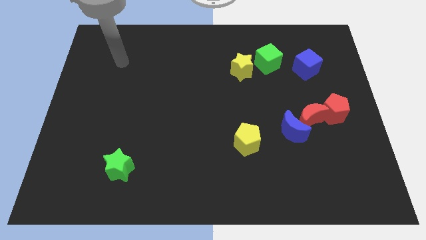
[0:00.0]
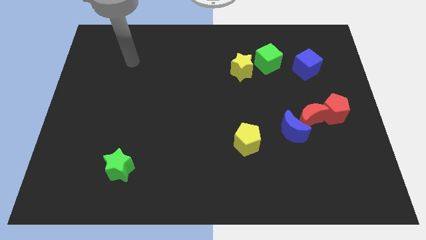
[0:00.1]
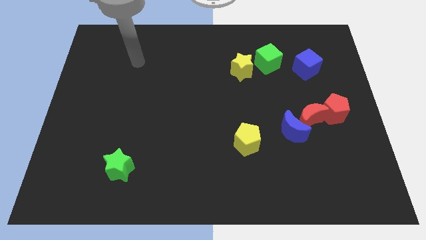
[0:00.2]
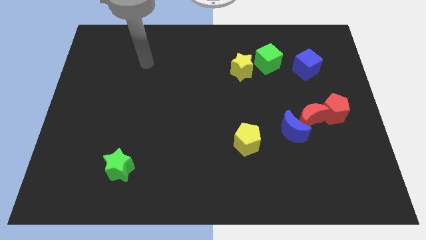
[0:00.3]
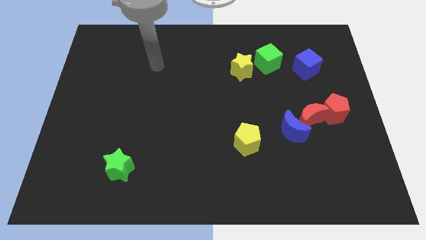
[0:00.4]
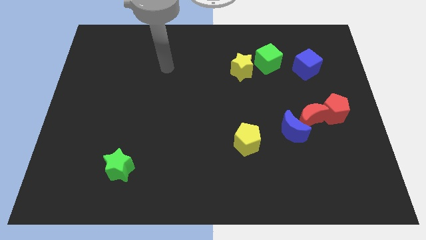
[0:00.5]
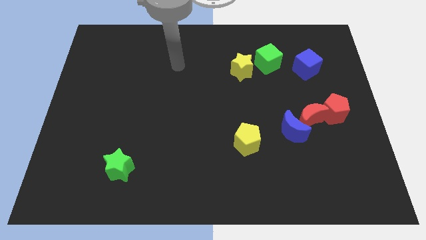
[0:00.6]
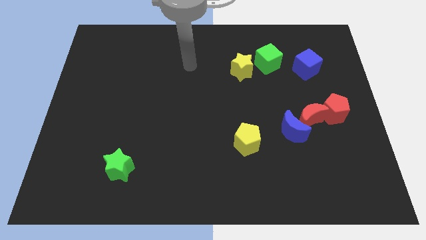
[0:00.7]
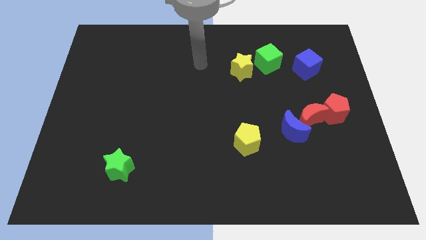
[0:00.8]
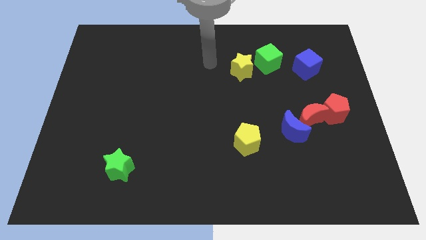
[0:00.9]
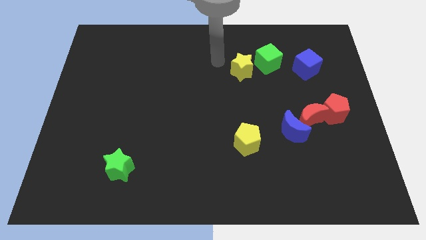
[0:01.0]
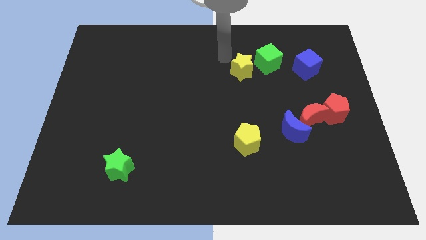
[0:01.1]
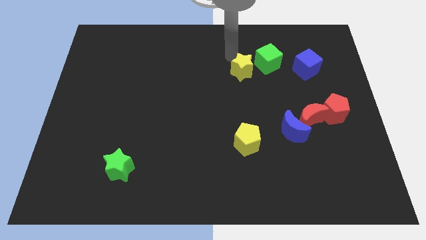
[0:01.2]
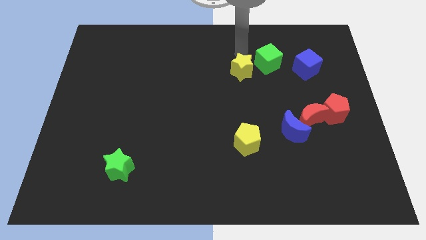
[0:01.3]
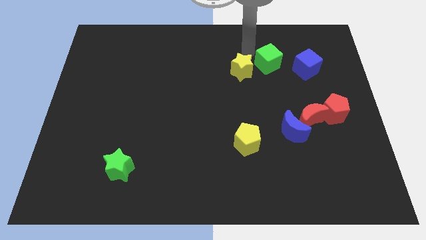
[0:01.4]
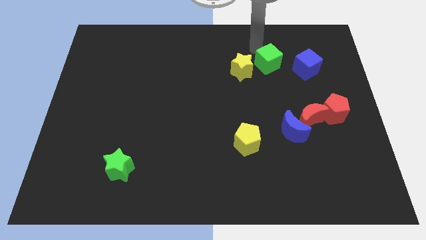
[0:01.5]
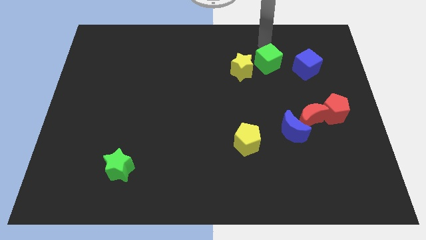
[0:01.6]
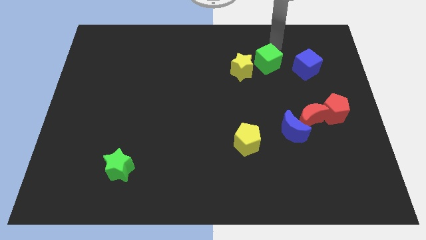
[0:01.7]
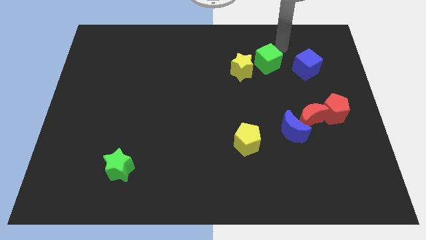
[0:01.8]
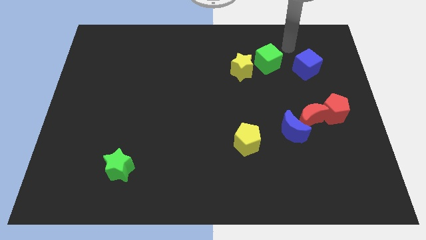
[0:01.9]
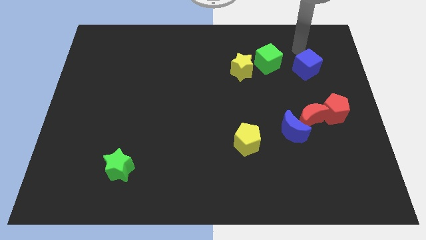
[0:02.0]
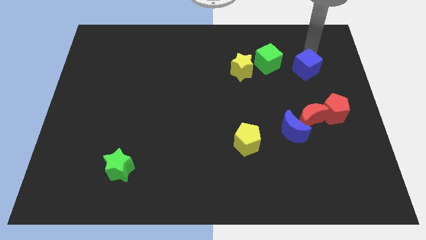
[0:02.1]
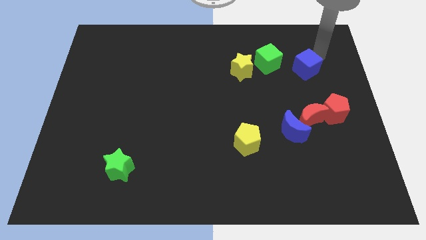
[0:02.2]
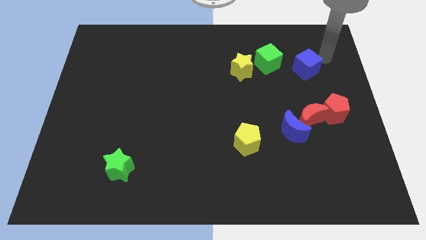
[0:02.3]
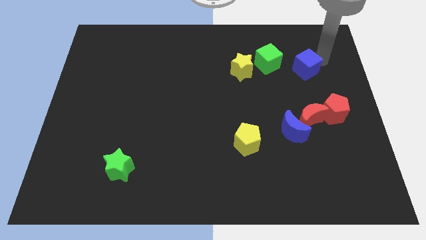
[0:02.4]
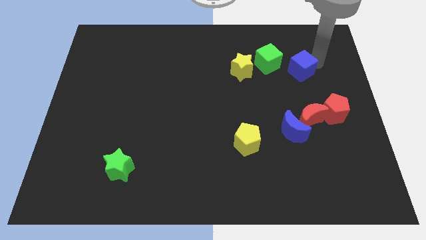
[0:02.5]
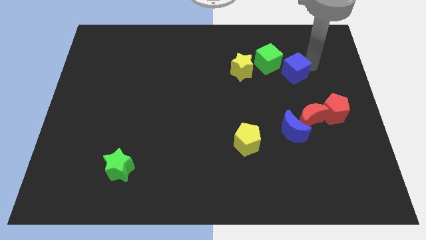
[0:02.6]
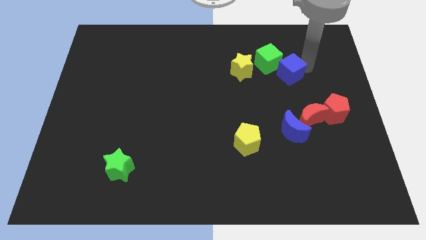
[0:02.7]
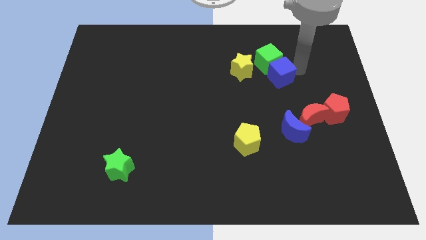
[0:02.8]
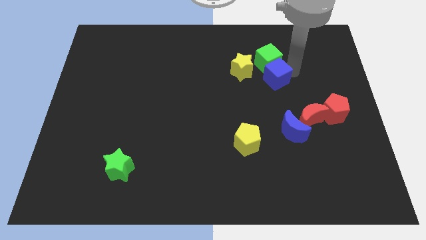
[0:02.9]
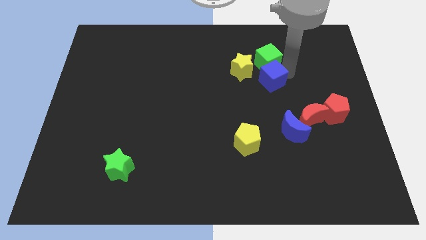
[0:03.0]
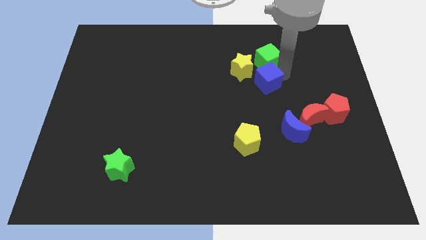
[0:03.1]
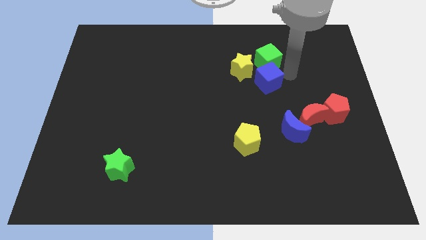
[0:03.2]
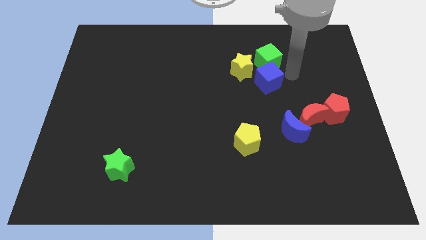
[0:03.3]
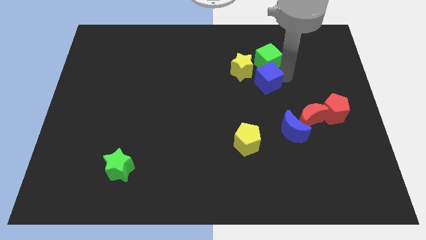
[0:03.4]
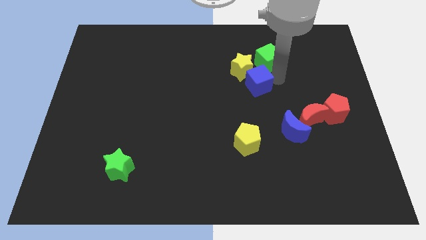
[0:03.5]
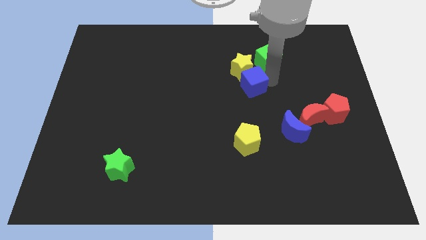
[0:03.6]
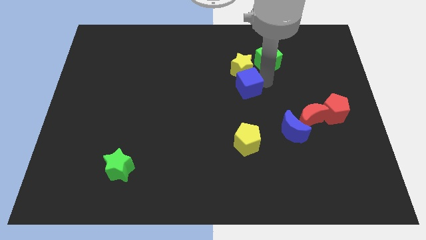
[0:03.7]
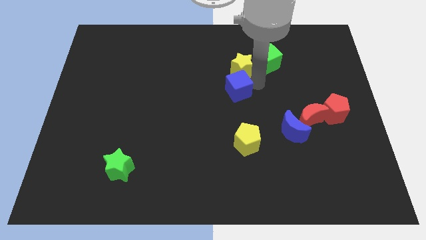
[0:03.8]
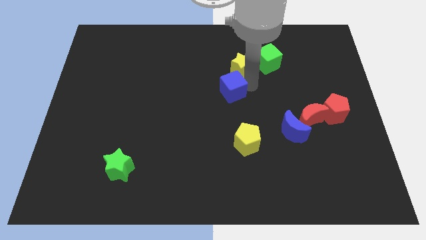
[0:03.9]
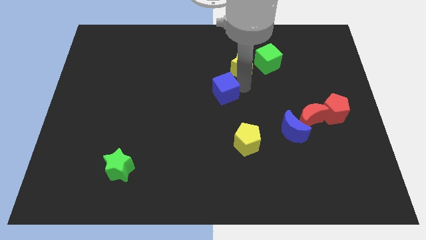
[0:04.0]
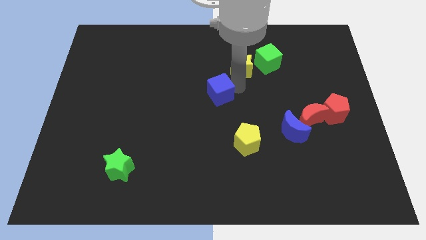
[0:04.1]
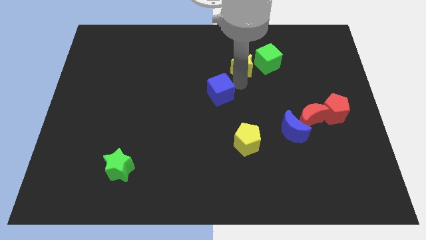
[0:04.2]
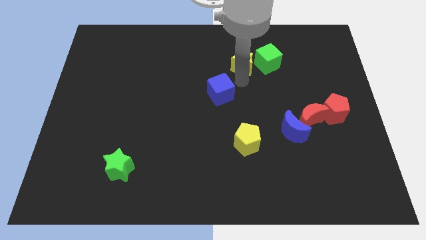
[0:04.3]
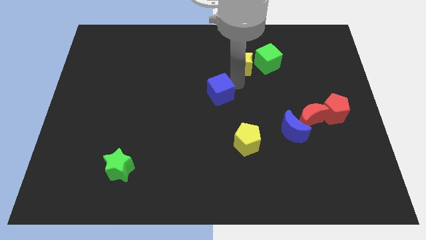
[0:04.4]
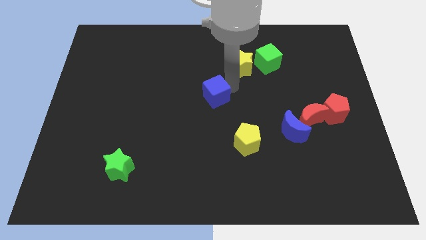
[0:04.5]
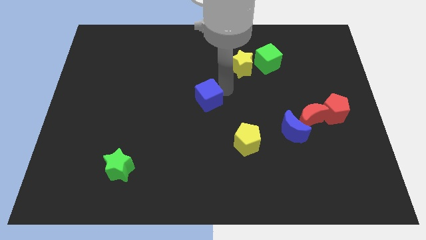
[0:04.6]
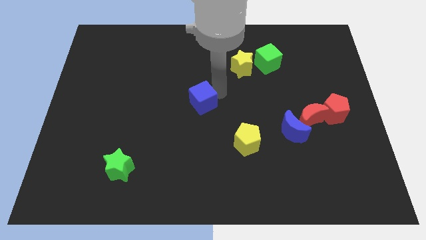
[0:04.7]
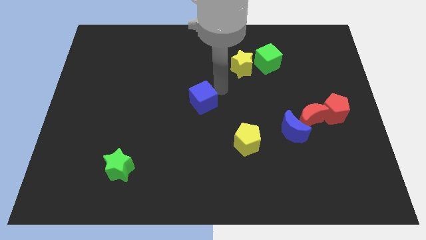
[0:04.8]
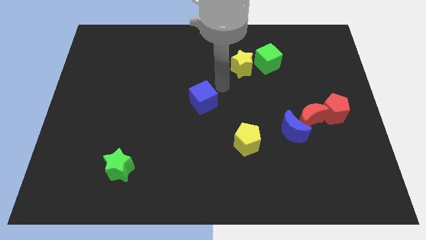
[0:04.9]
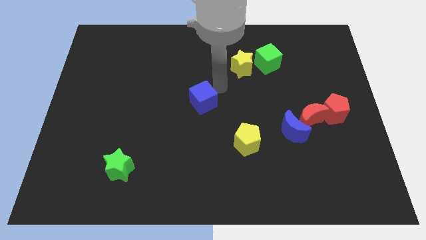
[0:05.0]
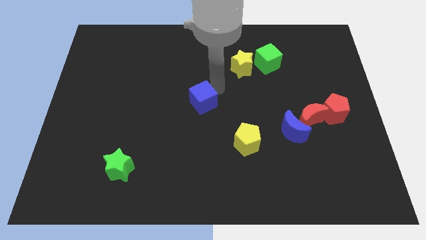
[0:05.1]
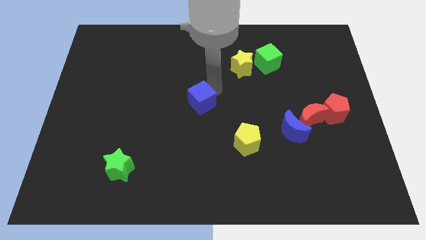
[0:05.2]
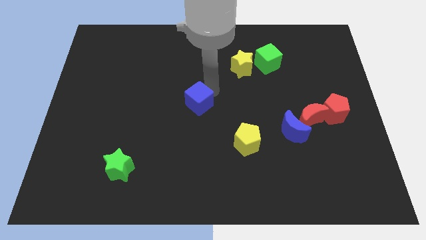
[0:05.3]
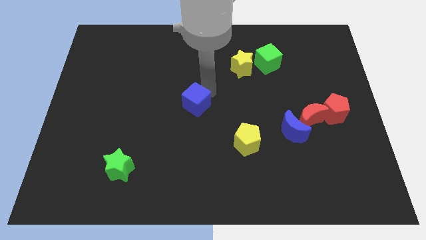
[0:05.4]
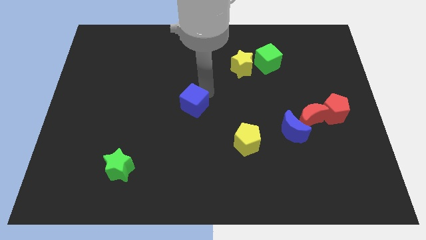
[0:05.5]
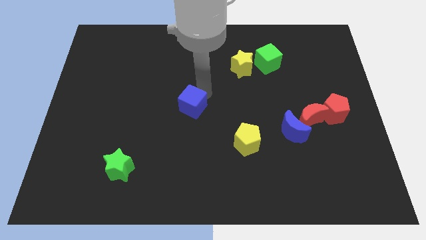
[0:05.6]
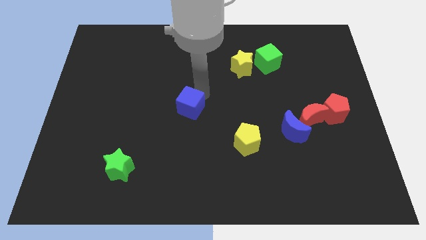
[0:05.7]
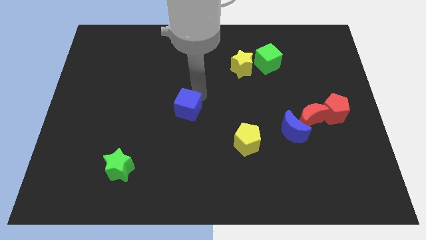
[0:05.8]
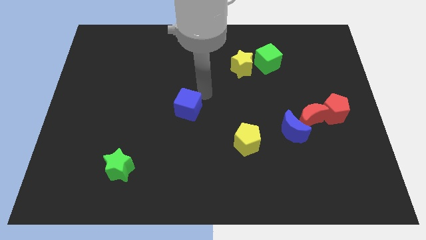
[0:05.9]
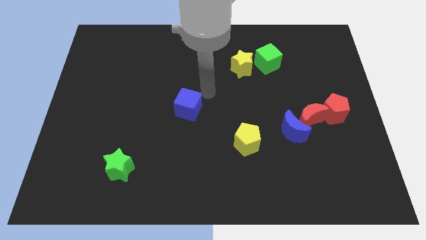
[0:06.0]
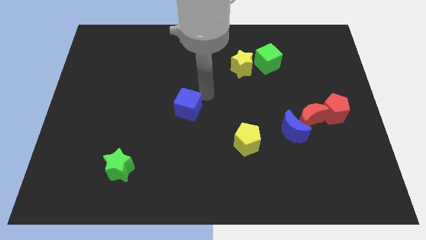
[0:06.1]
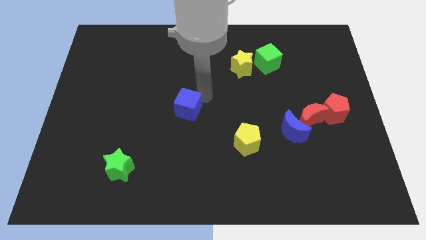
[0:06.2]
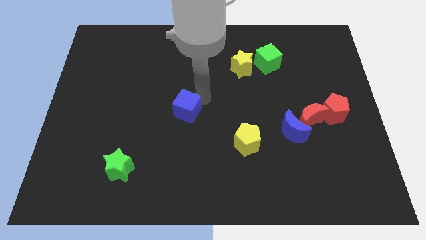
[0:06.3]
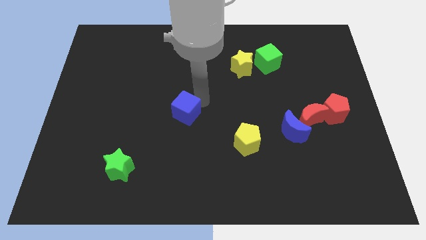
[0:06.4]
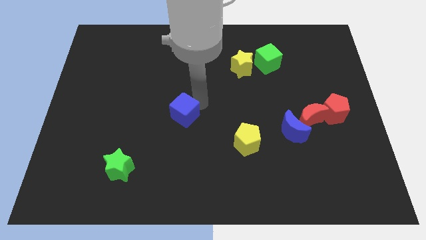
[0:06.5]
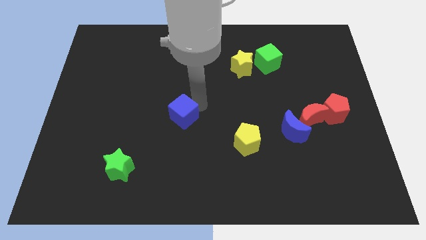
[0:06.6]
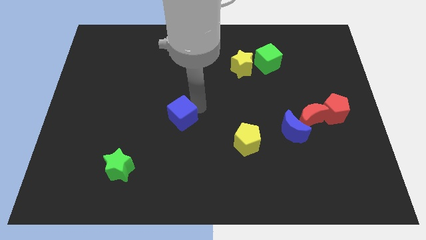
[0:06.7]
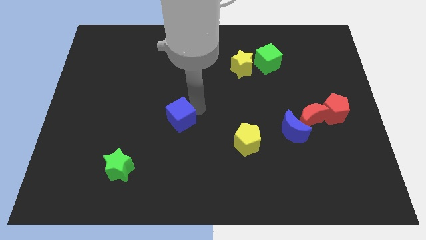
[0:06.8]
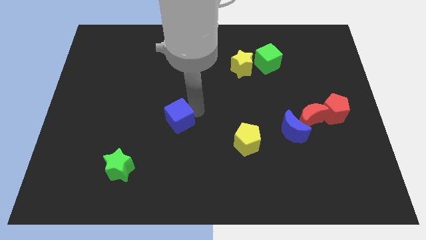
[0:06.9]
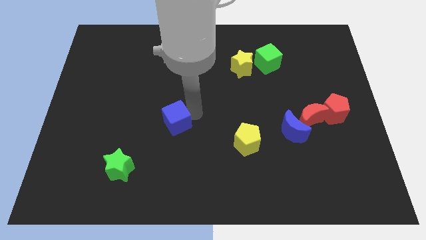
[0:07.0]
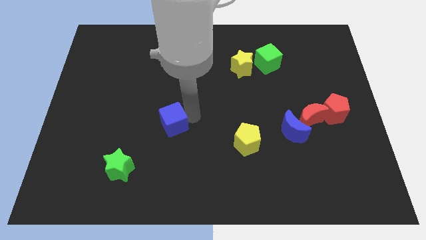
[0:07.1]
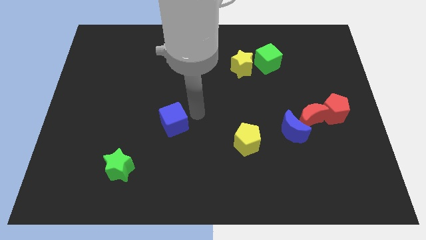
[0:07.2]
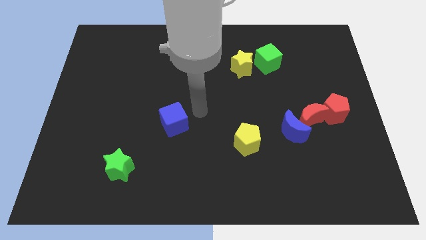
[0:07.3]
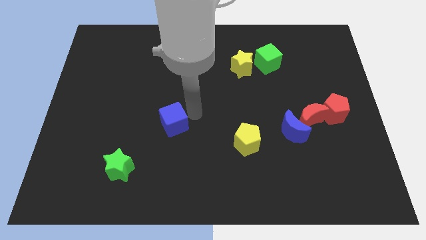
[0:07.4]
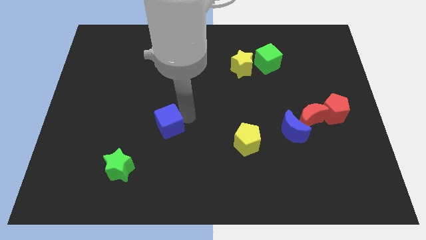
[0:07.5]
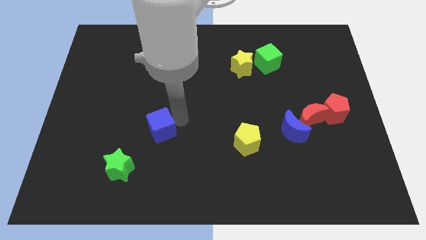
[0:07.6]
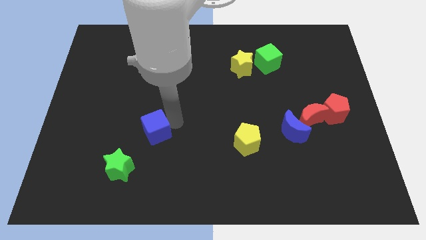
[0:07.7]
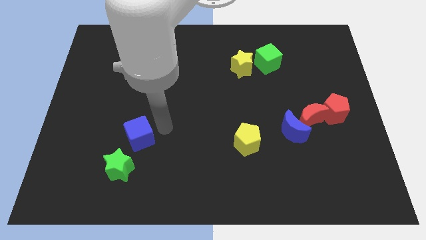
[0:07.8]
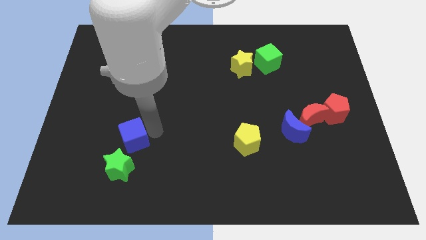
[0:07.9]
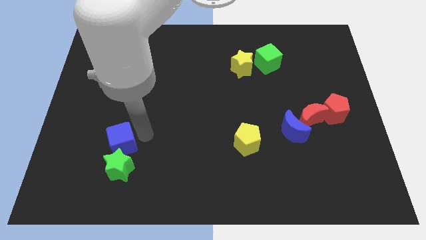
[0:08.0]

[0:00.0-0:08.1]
put the blue cube to the top left side of the green star
